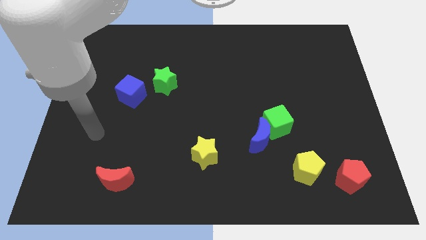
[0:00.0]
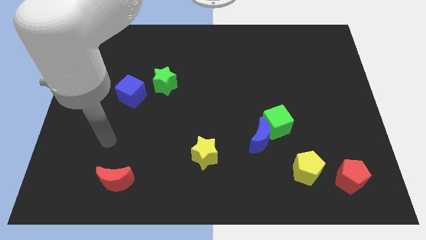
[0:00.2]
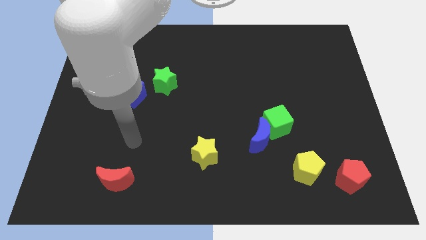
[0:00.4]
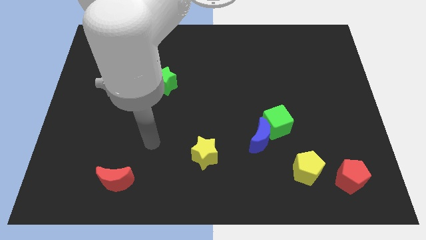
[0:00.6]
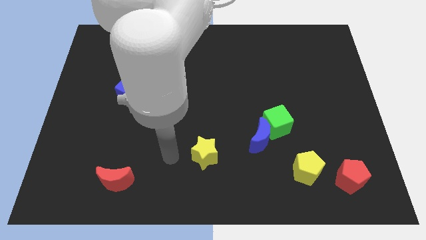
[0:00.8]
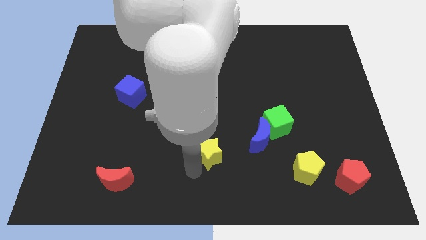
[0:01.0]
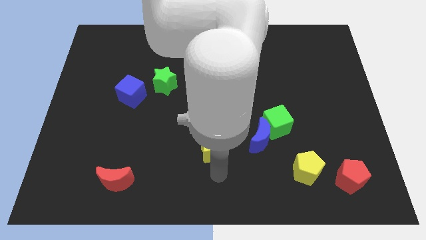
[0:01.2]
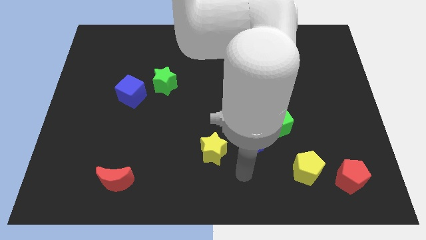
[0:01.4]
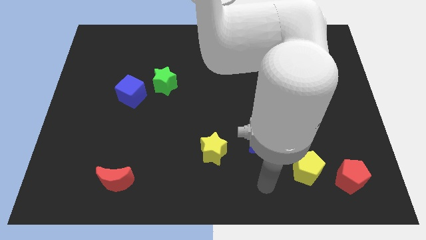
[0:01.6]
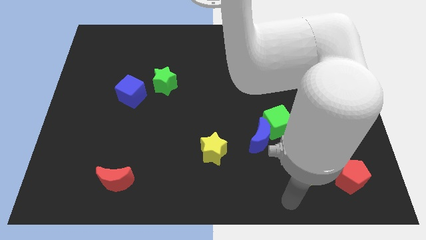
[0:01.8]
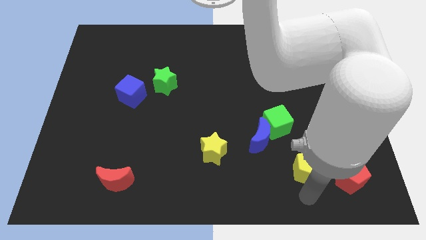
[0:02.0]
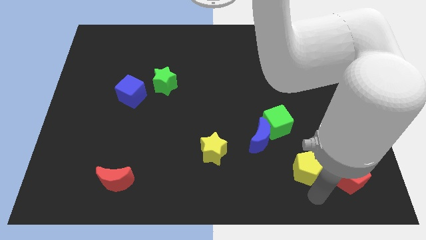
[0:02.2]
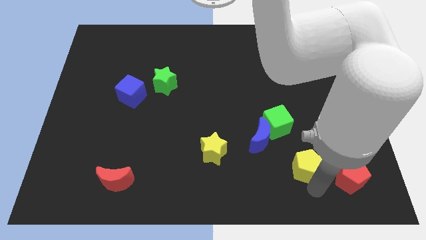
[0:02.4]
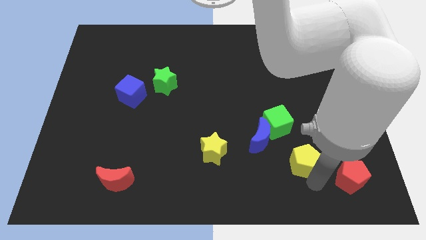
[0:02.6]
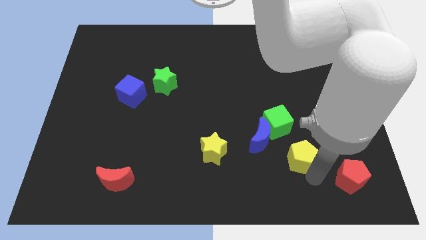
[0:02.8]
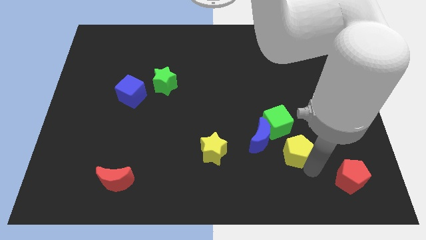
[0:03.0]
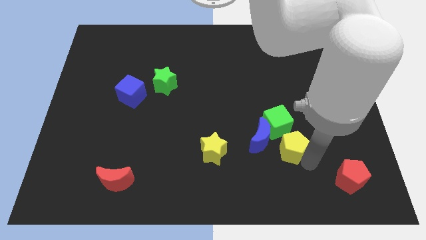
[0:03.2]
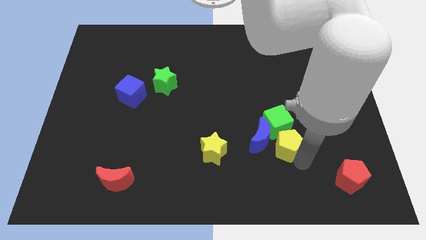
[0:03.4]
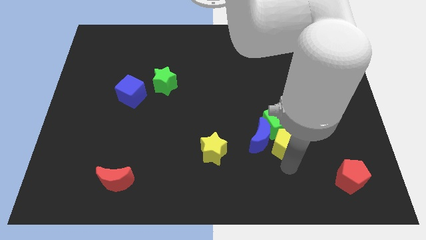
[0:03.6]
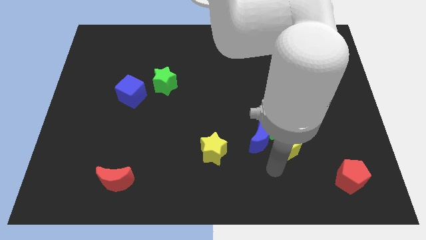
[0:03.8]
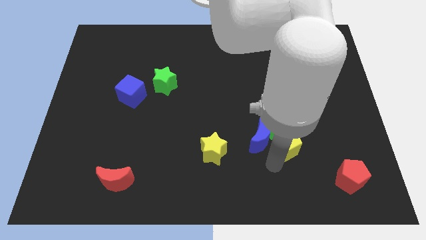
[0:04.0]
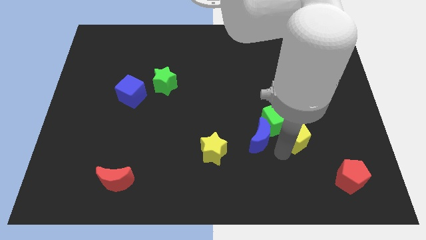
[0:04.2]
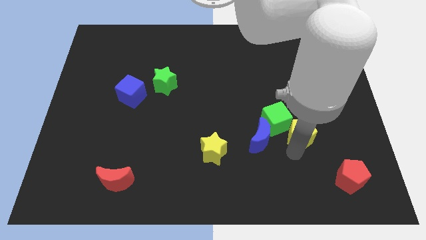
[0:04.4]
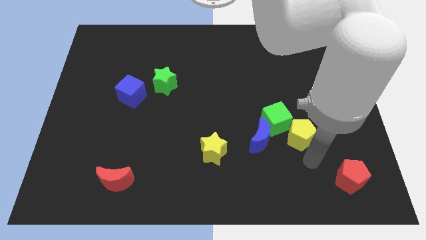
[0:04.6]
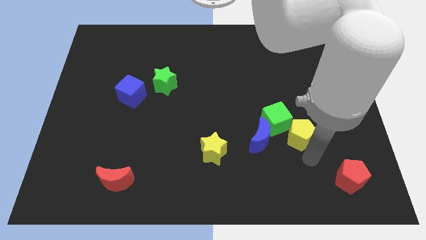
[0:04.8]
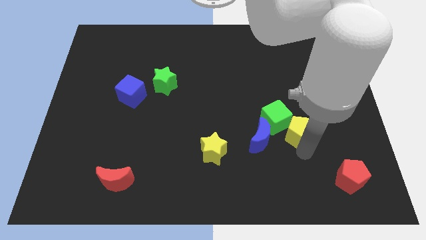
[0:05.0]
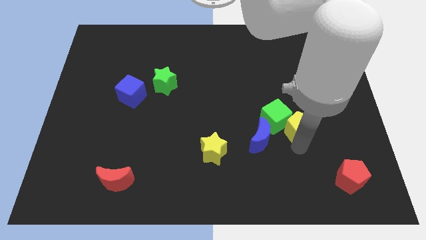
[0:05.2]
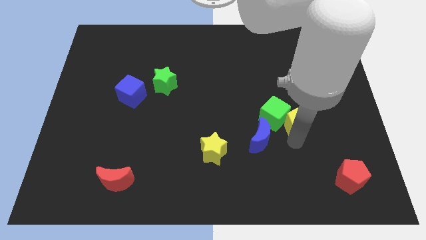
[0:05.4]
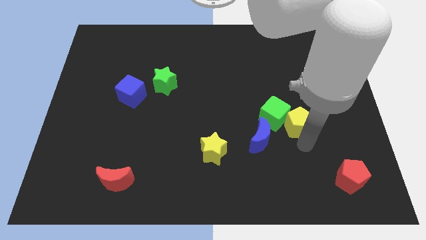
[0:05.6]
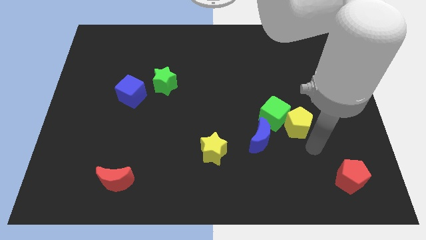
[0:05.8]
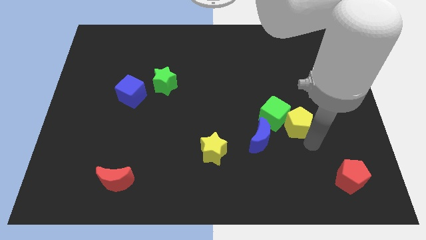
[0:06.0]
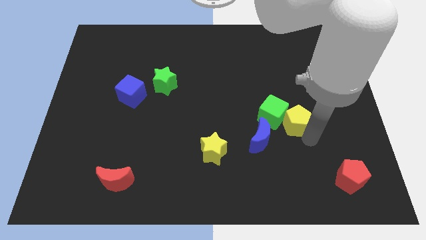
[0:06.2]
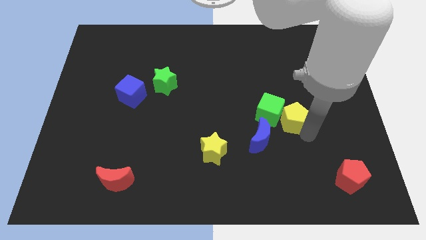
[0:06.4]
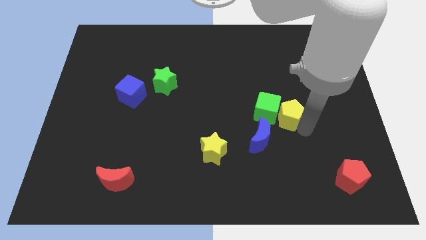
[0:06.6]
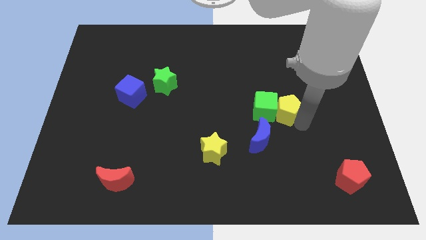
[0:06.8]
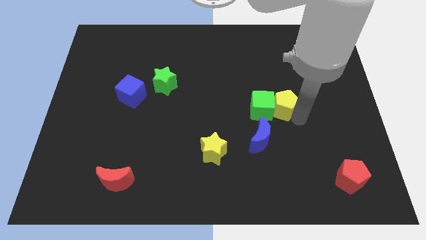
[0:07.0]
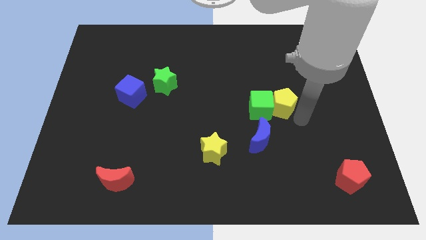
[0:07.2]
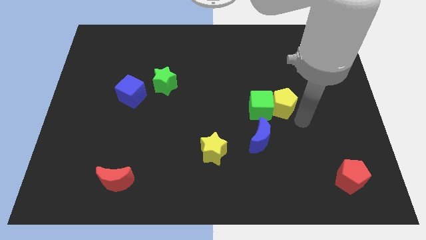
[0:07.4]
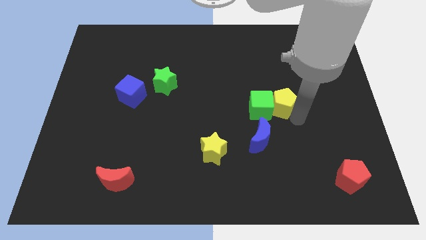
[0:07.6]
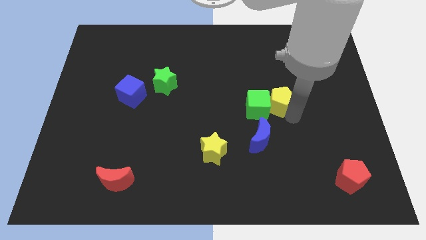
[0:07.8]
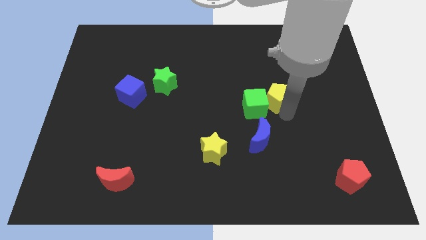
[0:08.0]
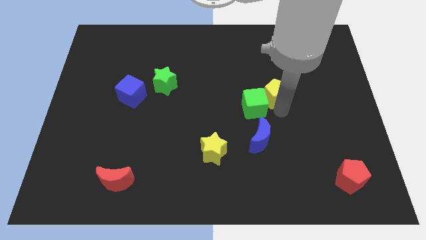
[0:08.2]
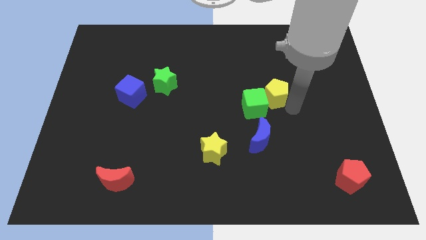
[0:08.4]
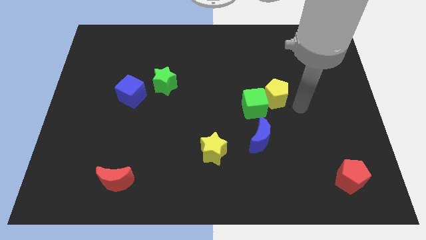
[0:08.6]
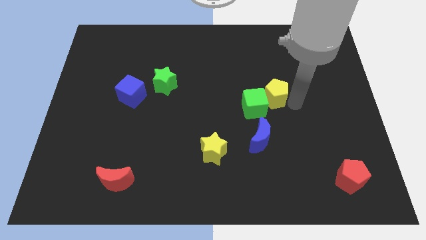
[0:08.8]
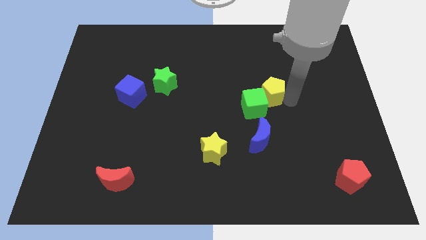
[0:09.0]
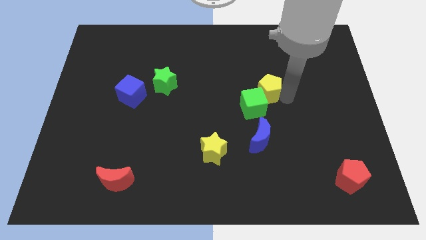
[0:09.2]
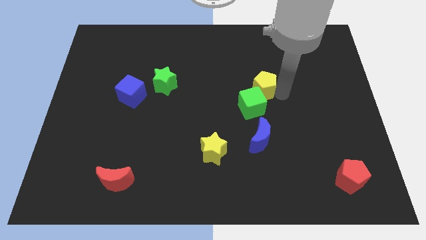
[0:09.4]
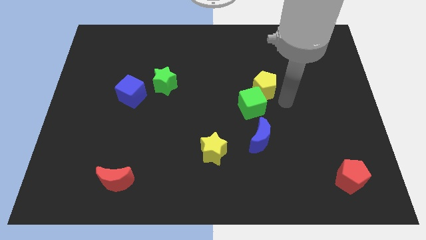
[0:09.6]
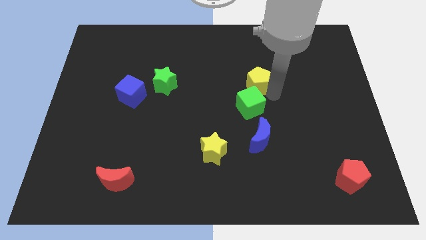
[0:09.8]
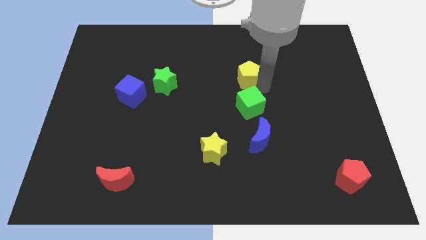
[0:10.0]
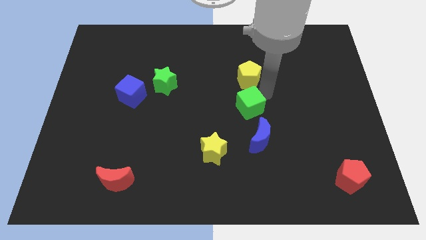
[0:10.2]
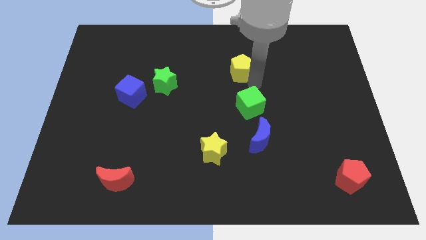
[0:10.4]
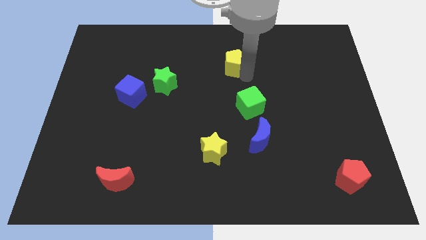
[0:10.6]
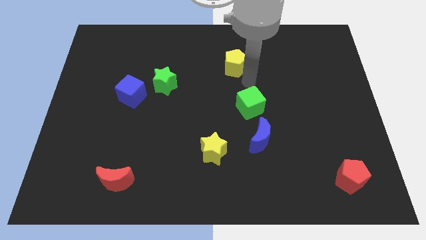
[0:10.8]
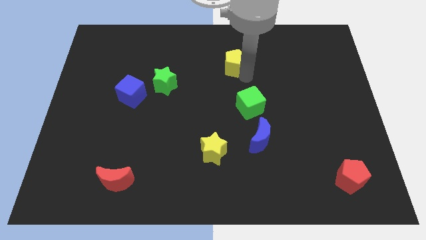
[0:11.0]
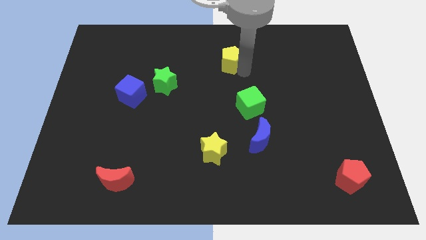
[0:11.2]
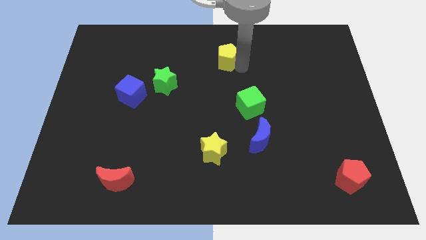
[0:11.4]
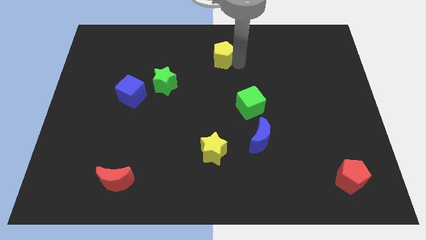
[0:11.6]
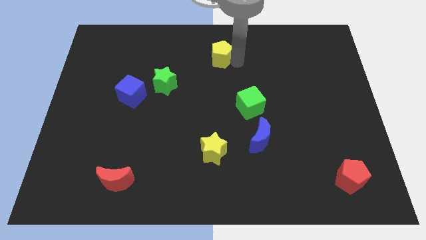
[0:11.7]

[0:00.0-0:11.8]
move the yellow pentagon to the towards your base

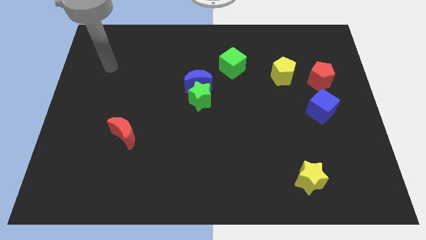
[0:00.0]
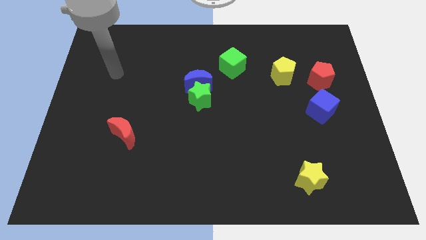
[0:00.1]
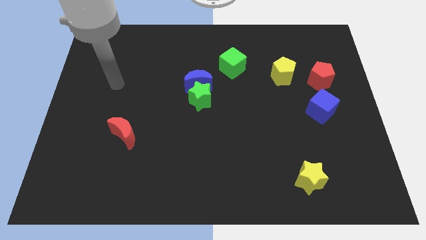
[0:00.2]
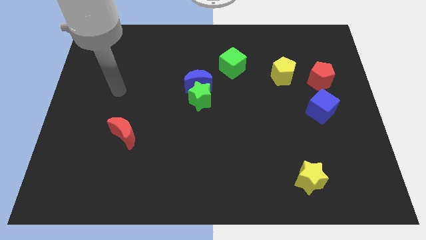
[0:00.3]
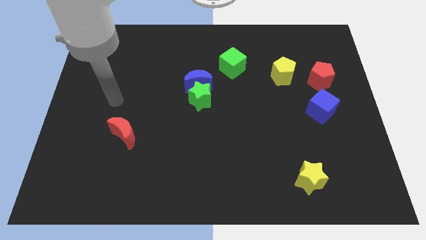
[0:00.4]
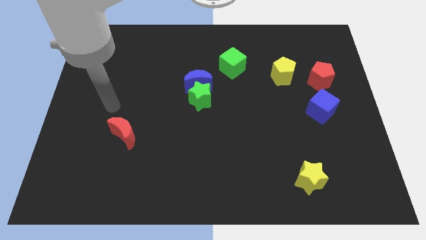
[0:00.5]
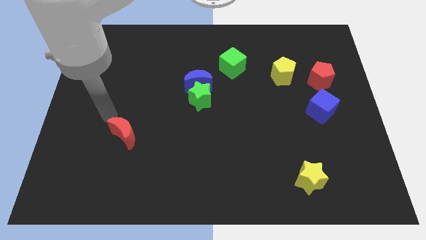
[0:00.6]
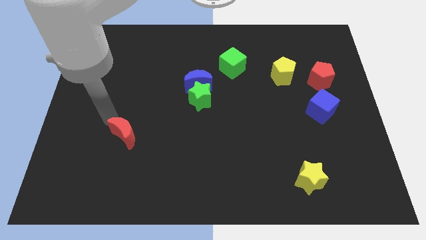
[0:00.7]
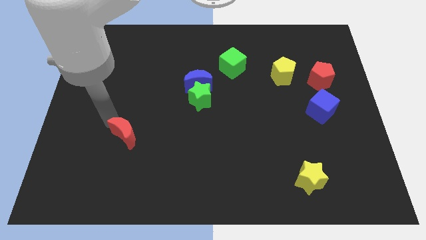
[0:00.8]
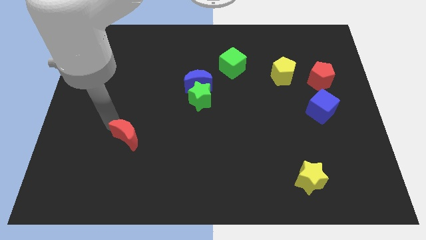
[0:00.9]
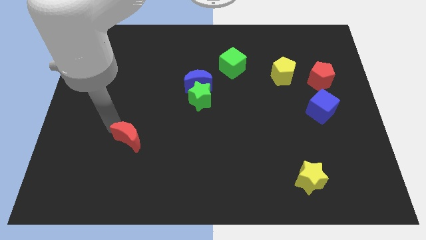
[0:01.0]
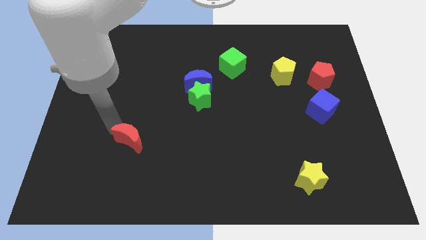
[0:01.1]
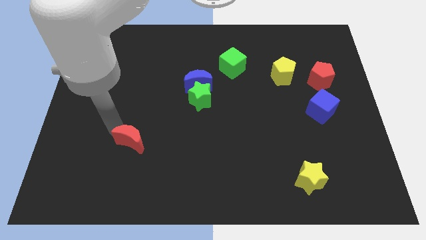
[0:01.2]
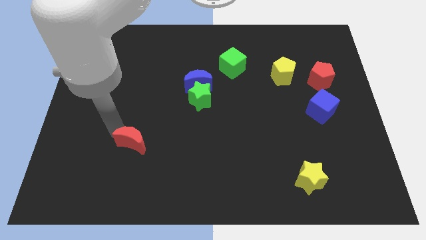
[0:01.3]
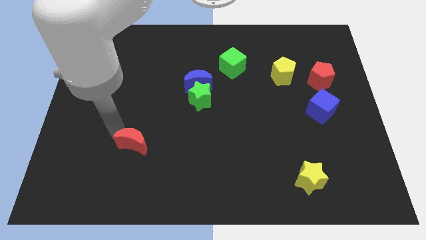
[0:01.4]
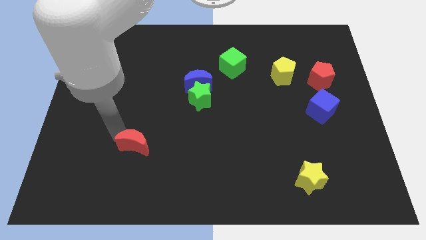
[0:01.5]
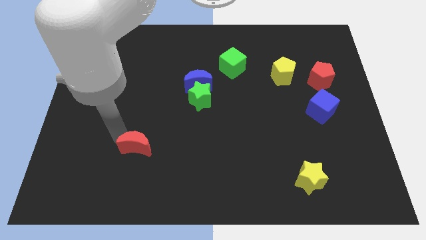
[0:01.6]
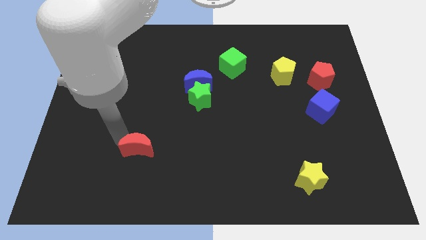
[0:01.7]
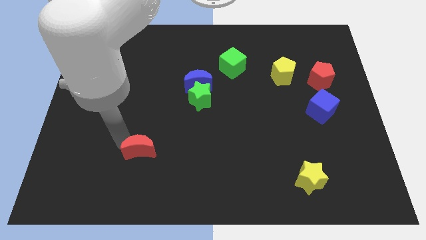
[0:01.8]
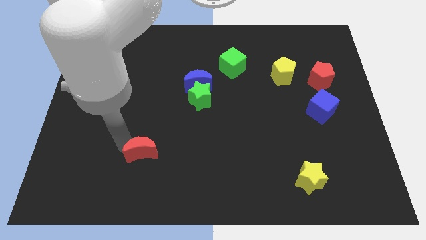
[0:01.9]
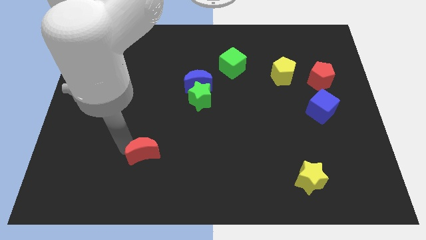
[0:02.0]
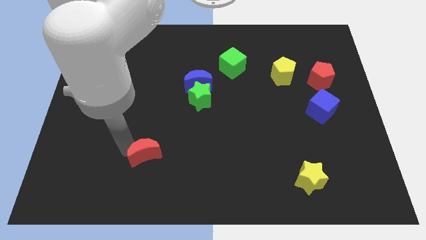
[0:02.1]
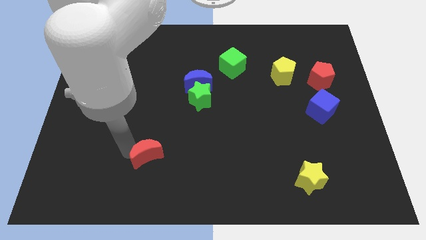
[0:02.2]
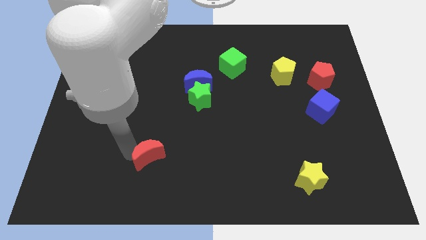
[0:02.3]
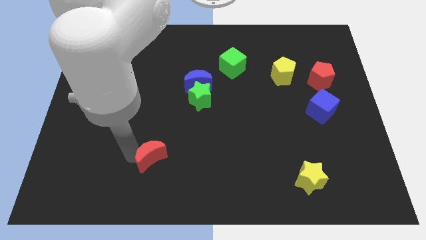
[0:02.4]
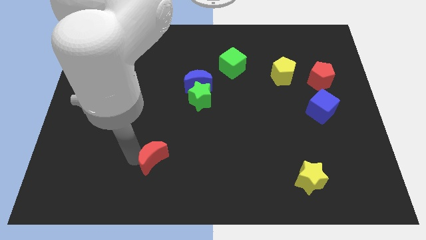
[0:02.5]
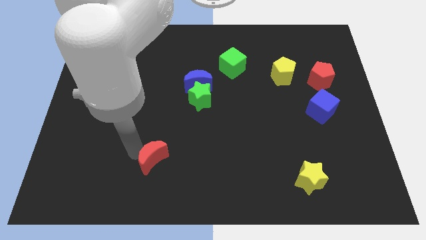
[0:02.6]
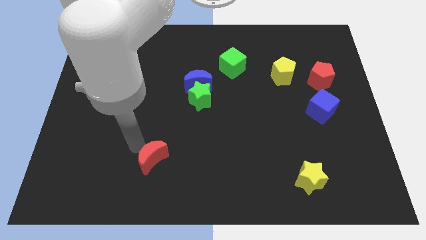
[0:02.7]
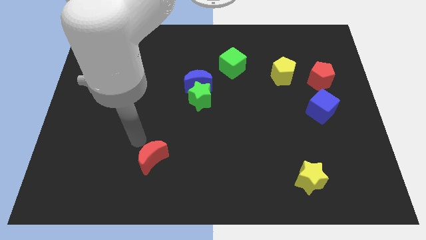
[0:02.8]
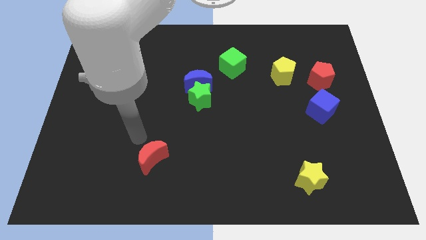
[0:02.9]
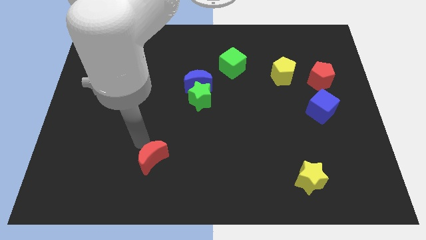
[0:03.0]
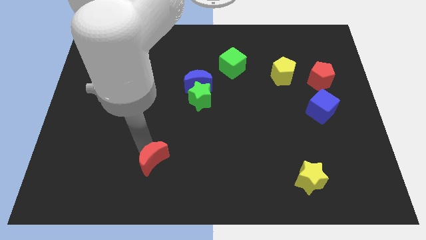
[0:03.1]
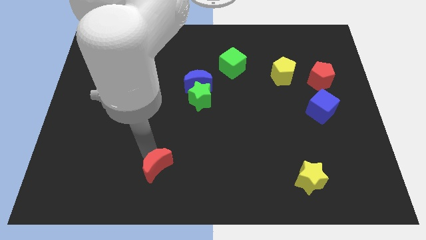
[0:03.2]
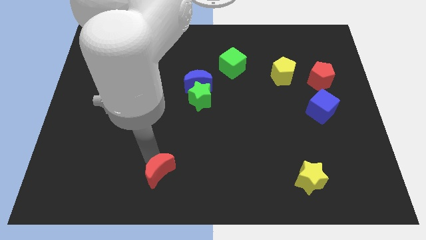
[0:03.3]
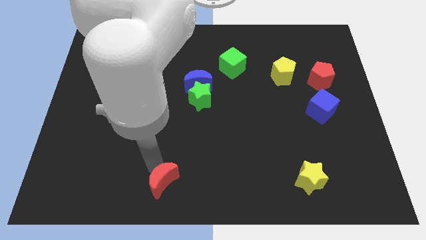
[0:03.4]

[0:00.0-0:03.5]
slide the red moon to the bottom
